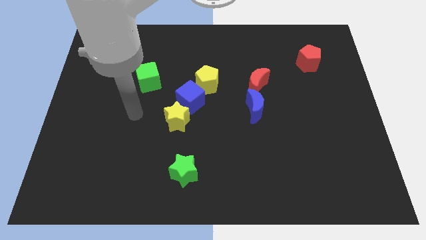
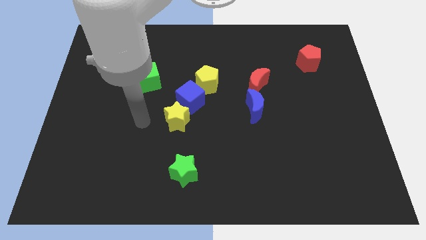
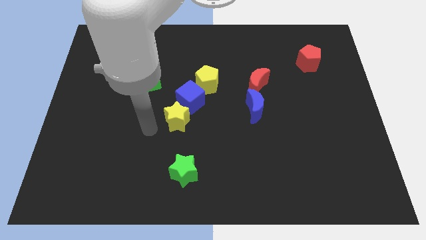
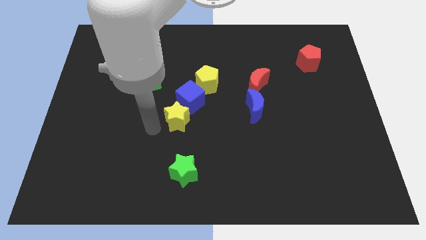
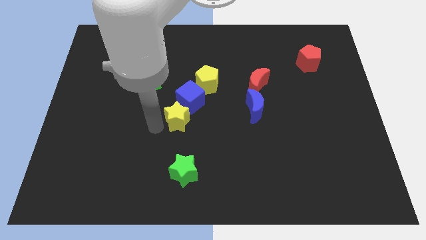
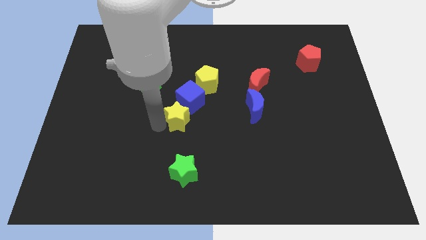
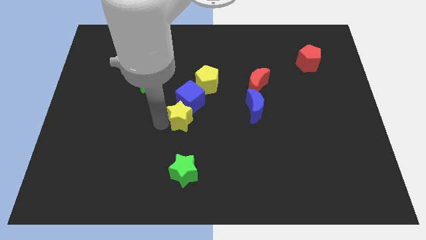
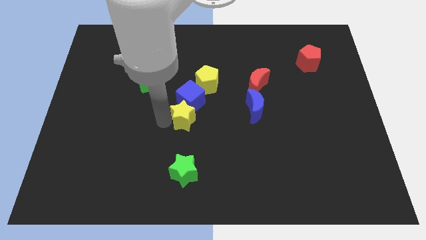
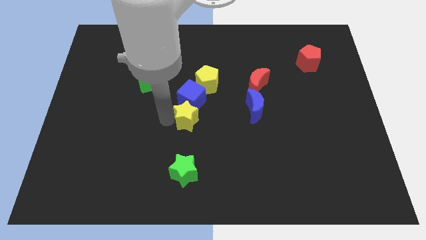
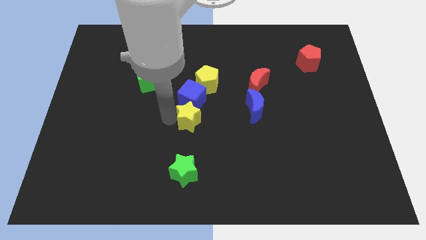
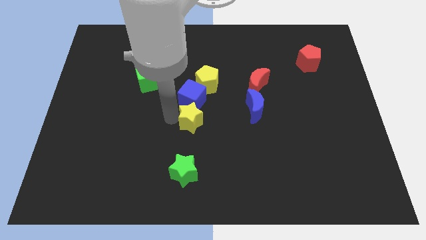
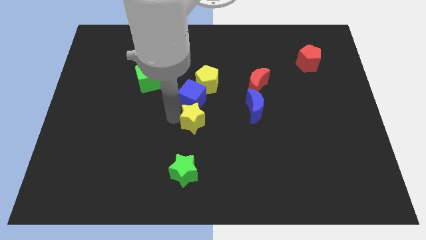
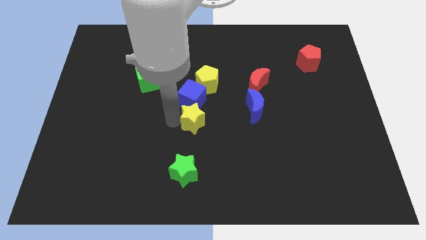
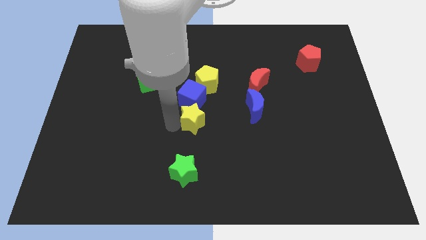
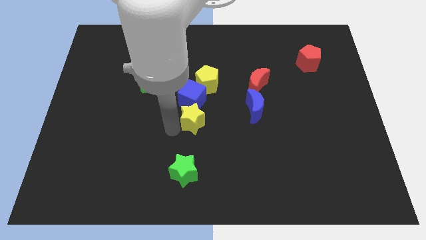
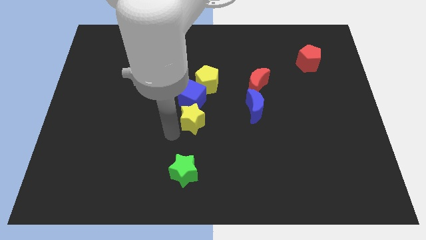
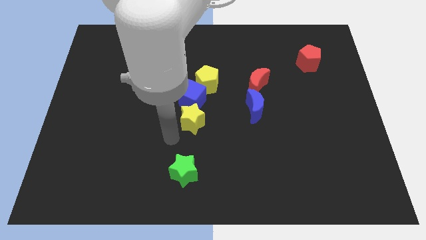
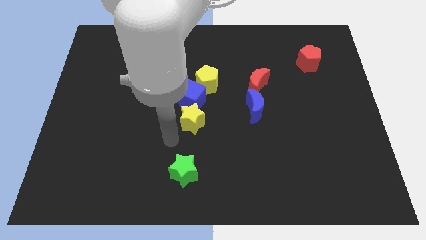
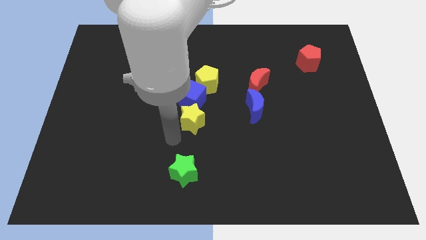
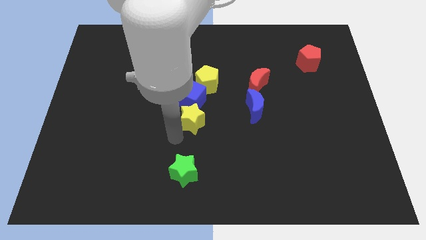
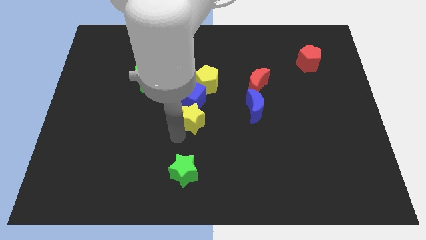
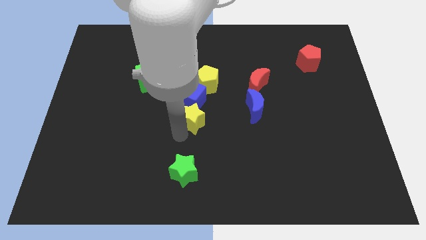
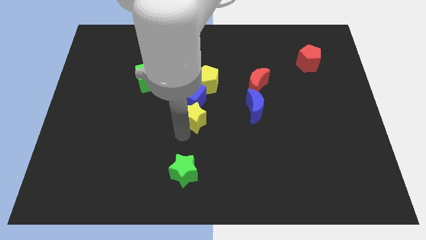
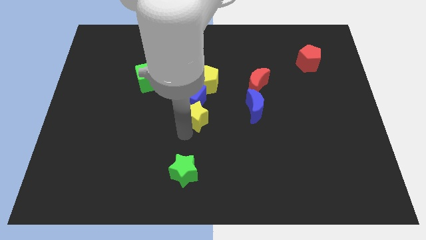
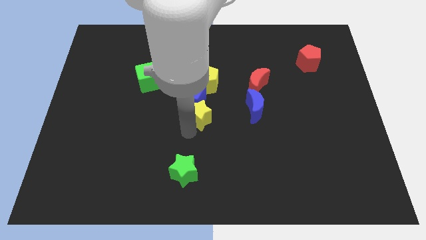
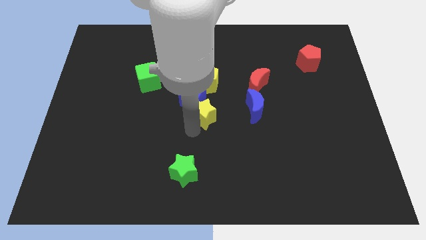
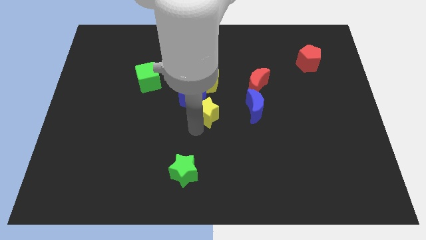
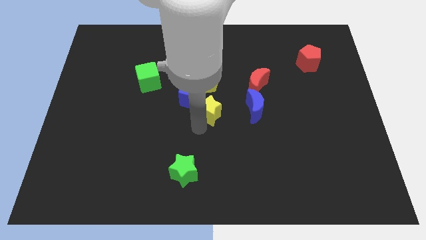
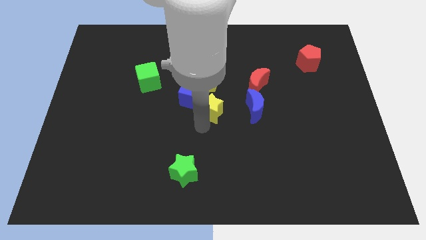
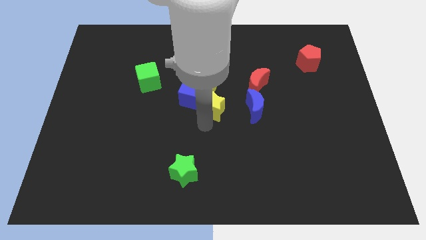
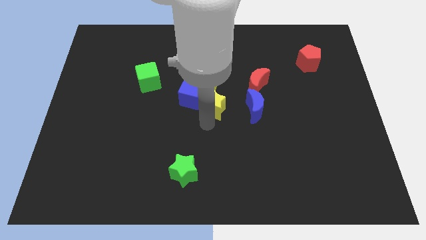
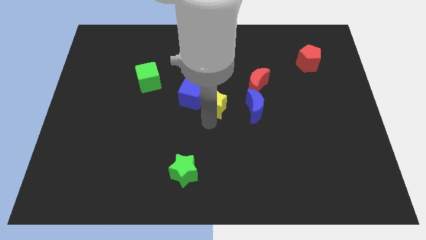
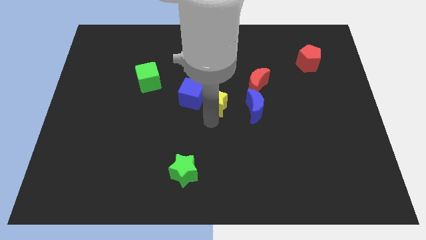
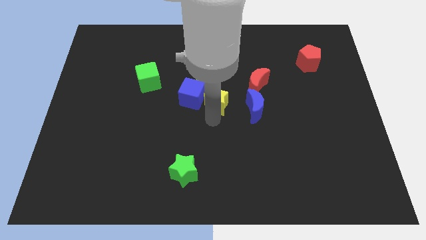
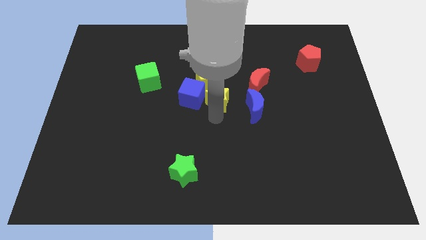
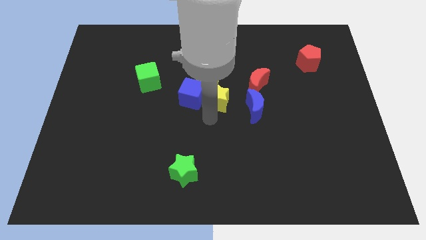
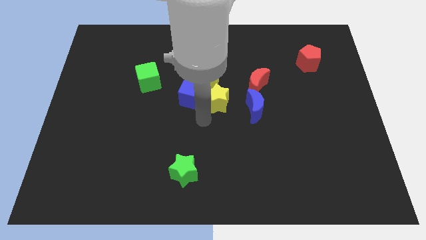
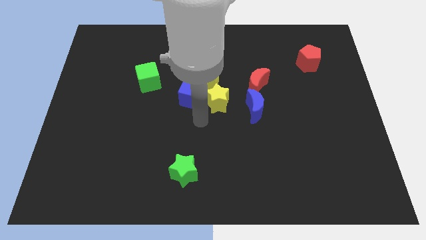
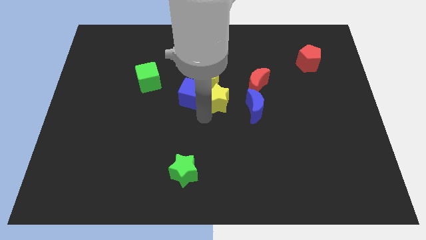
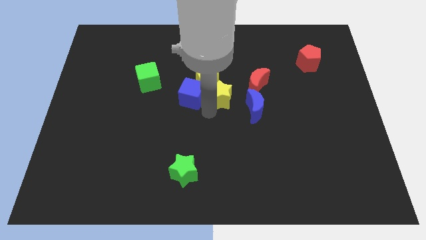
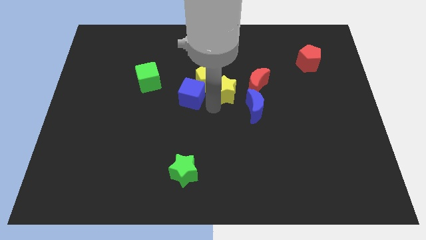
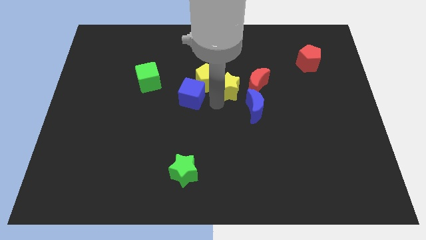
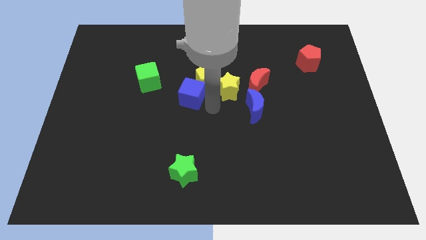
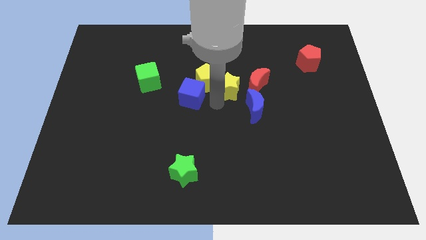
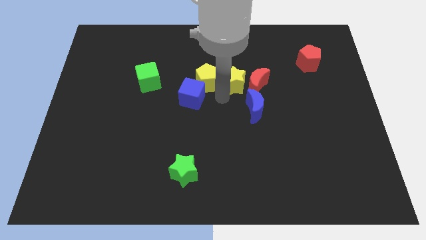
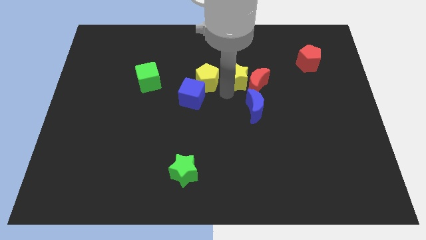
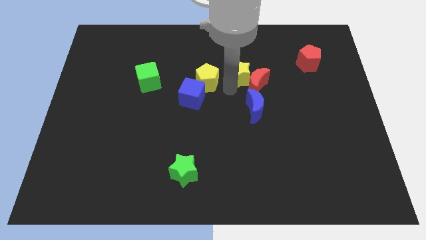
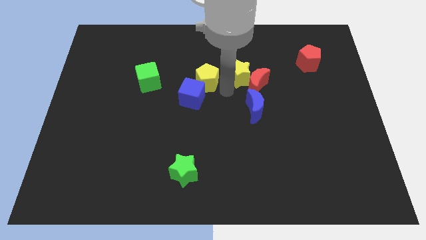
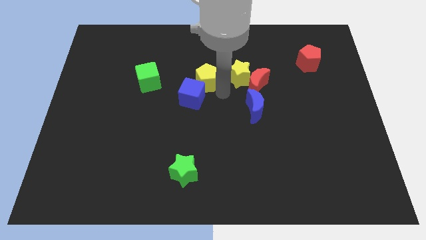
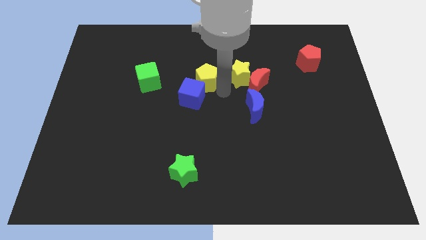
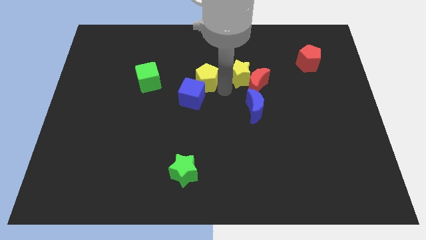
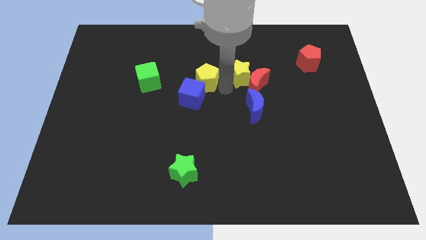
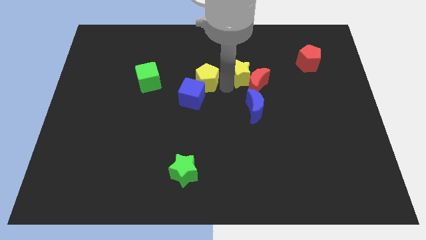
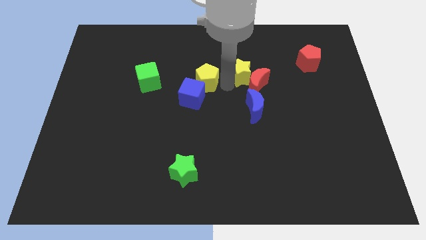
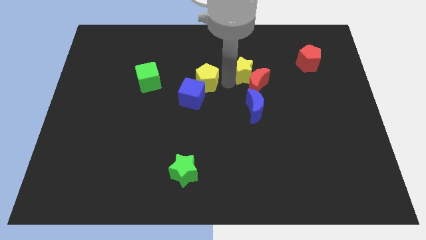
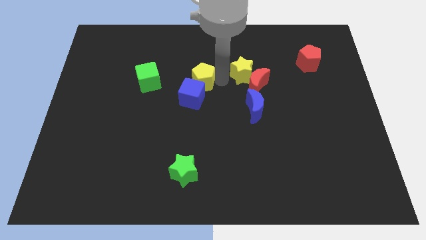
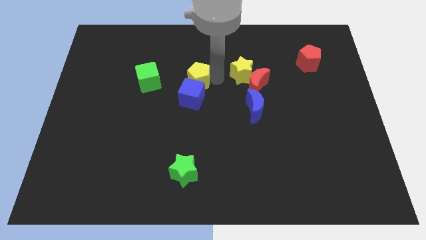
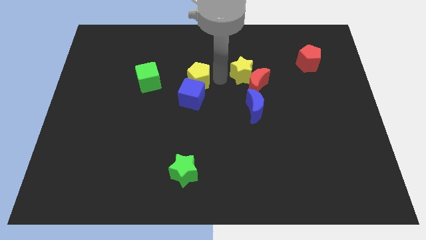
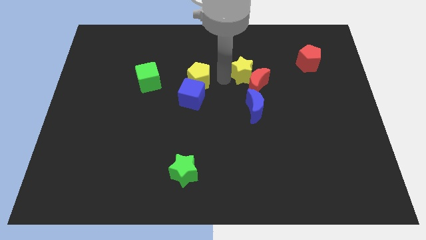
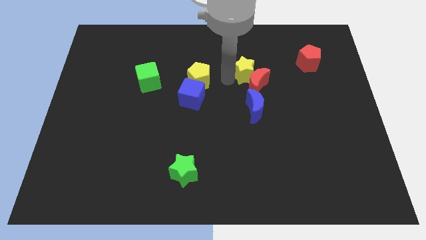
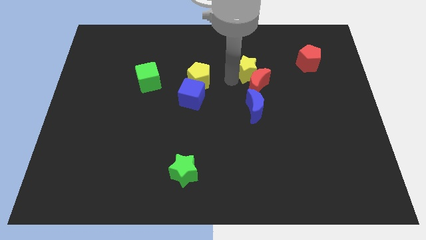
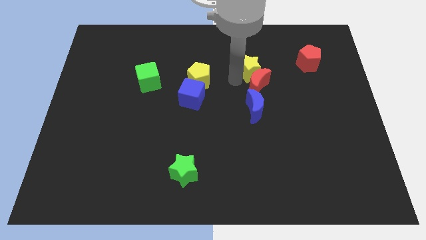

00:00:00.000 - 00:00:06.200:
slide the yellow star to the top right of the red moon

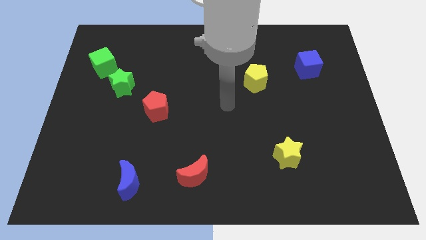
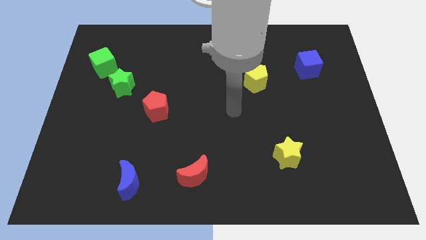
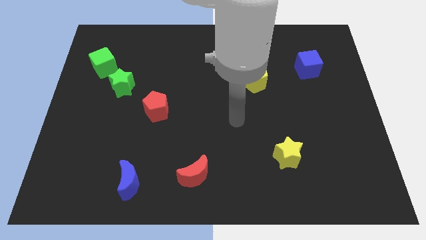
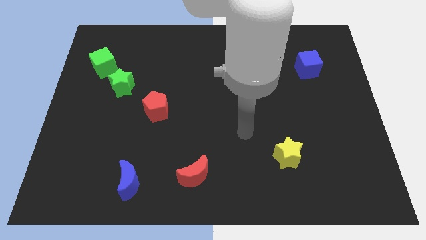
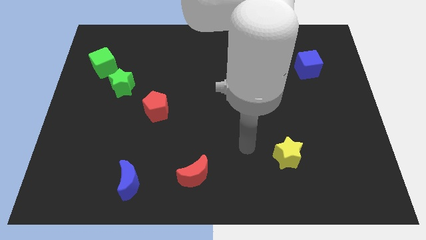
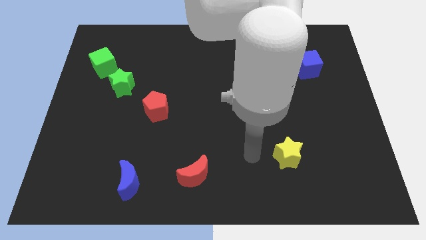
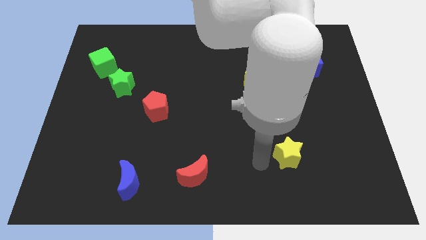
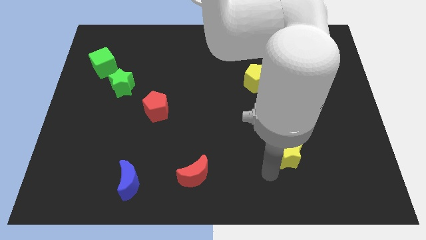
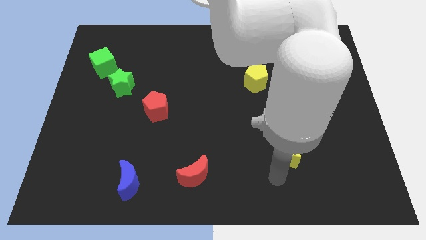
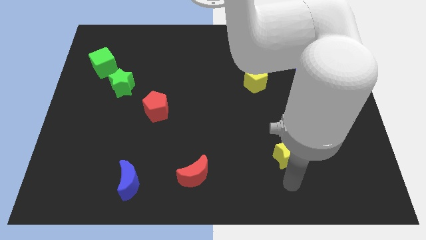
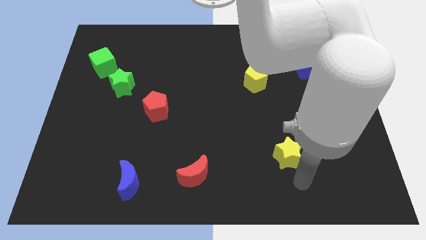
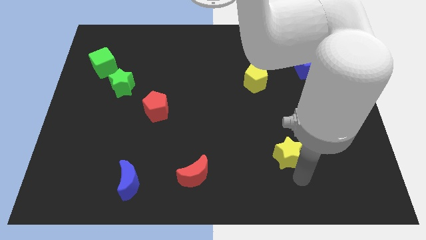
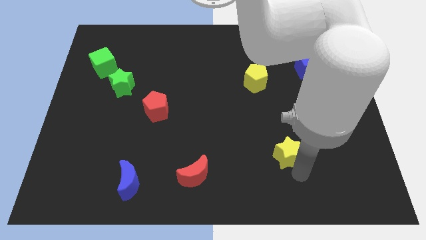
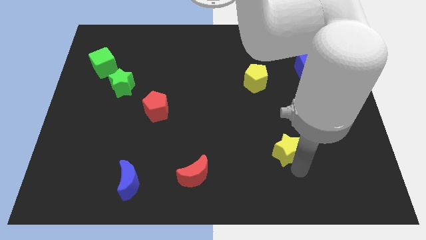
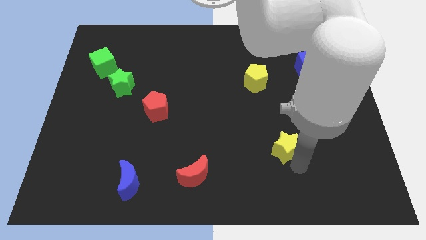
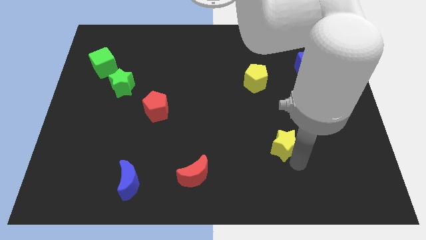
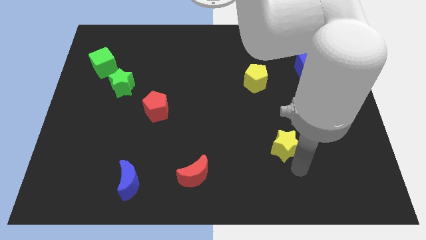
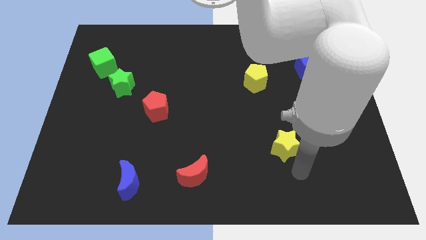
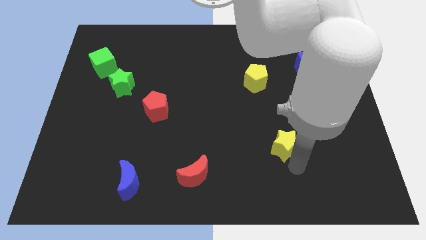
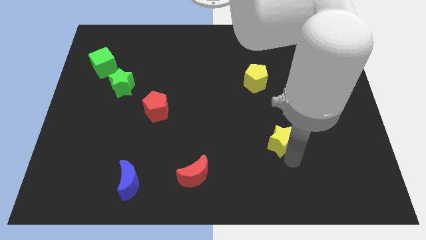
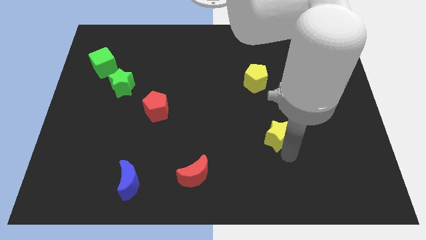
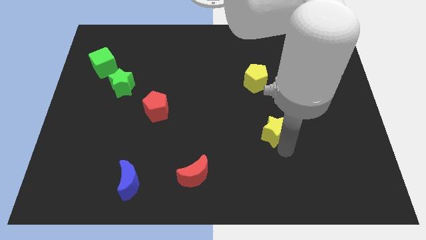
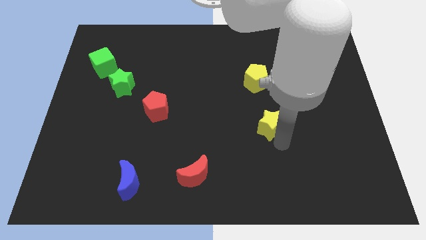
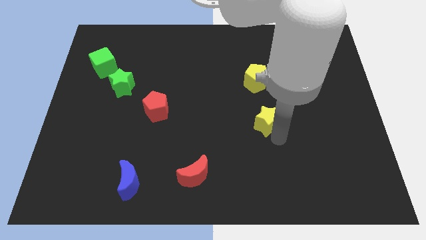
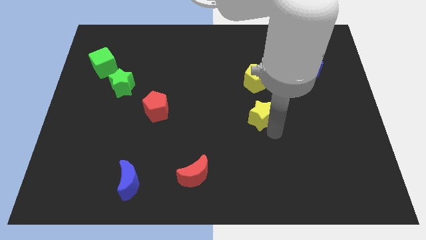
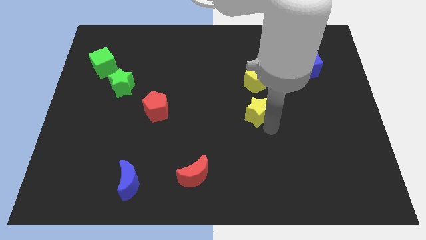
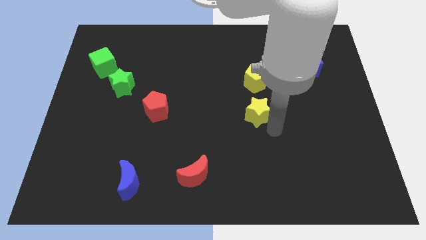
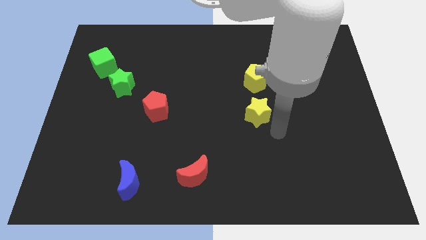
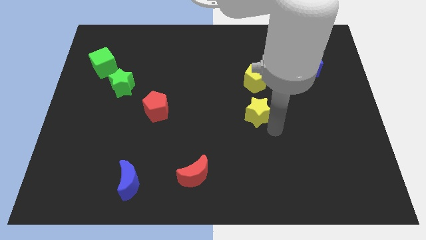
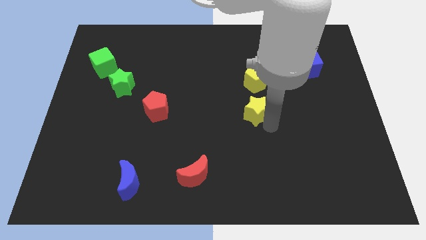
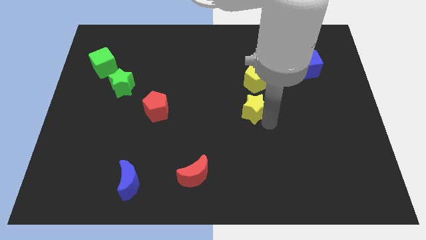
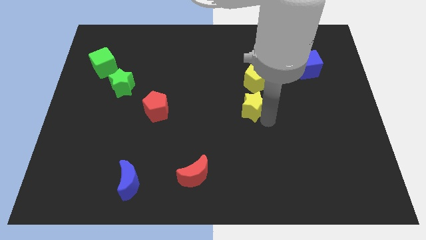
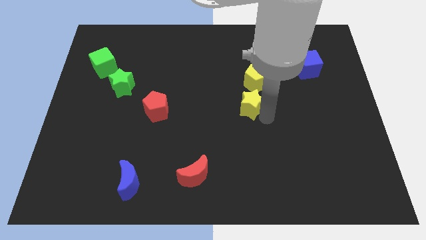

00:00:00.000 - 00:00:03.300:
put the yellow star to the bottom left side of the yellow pentagon
